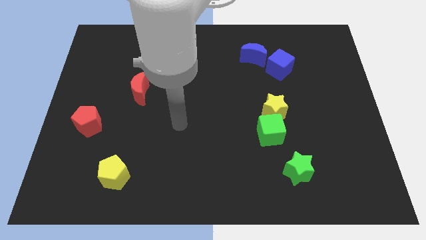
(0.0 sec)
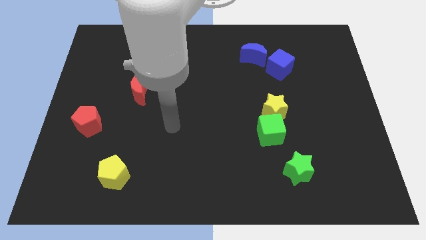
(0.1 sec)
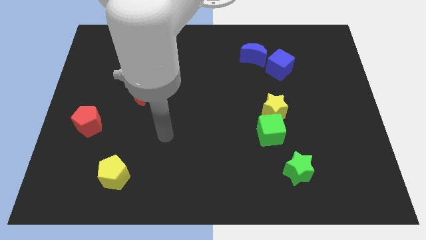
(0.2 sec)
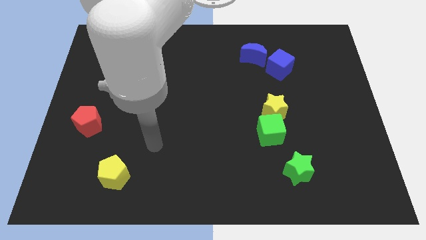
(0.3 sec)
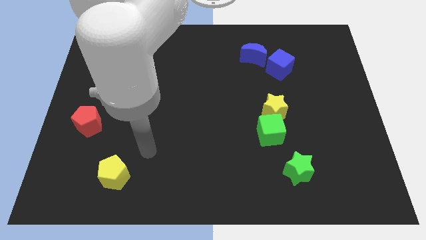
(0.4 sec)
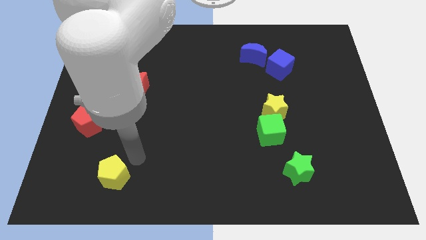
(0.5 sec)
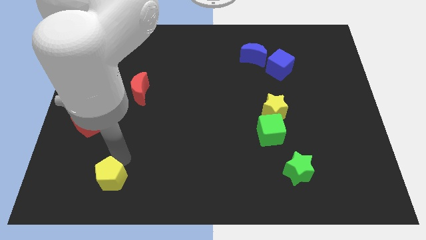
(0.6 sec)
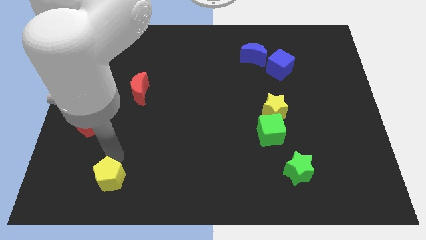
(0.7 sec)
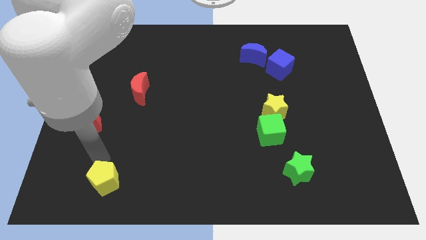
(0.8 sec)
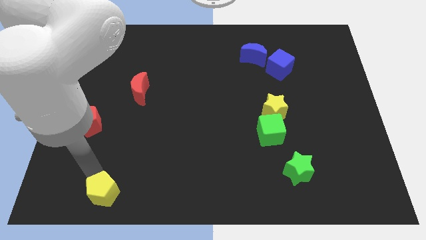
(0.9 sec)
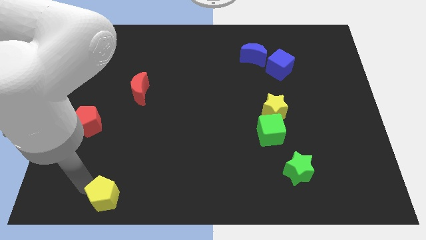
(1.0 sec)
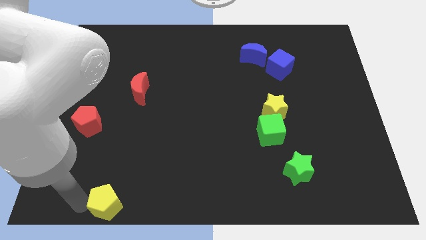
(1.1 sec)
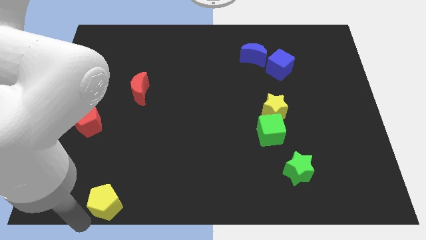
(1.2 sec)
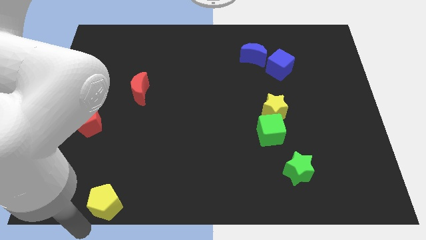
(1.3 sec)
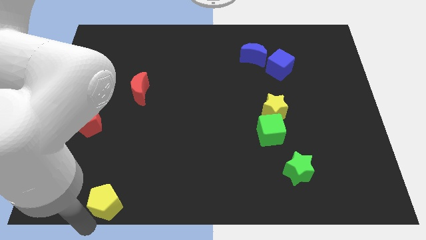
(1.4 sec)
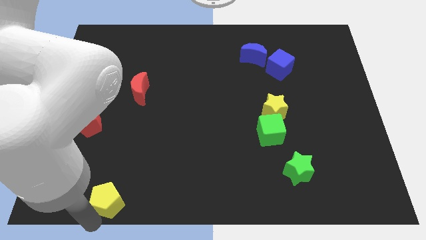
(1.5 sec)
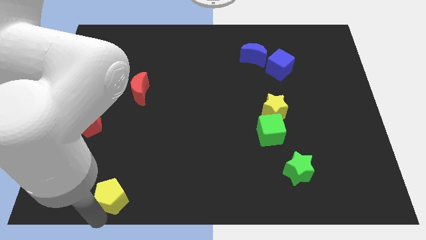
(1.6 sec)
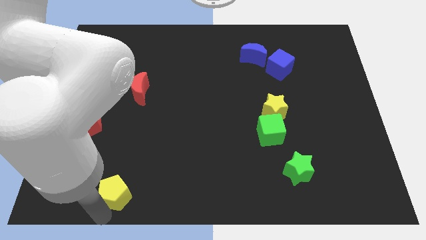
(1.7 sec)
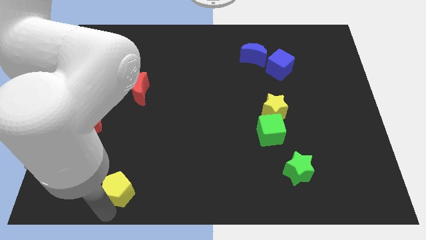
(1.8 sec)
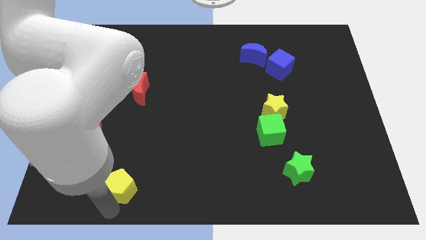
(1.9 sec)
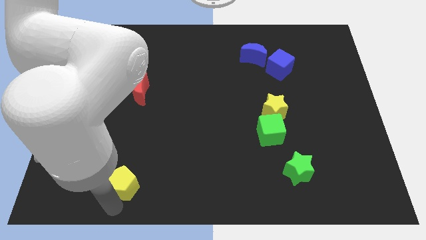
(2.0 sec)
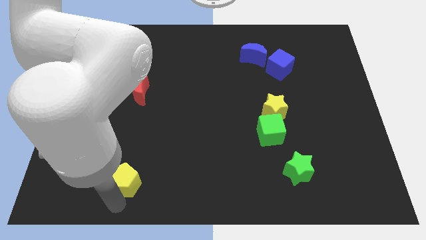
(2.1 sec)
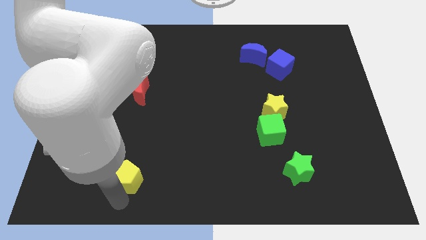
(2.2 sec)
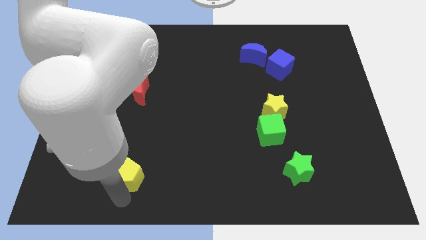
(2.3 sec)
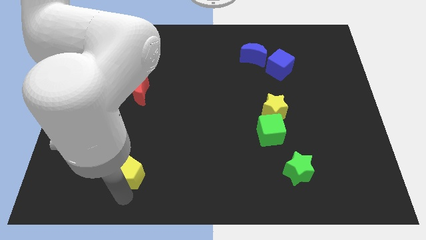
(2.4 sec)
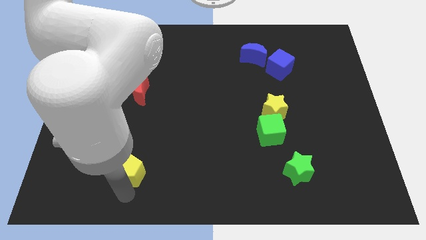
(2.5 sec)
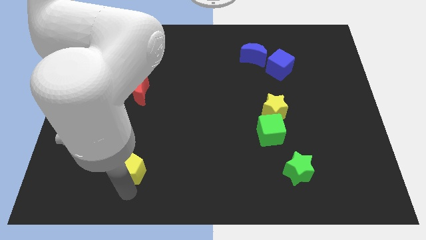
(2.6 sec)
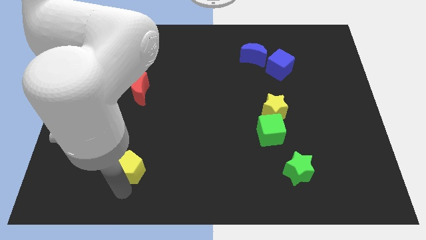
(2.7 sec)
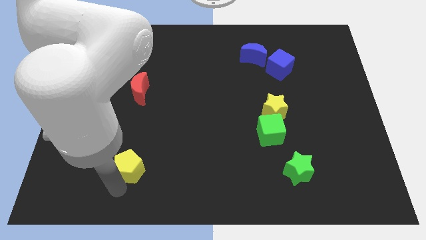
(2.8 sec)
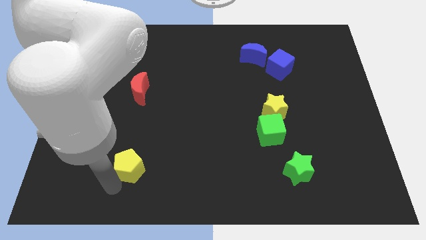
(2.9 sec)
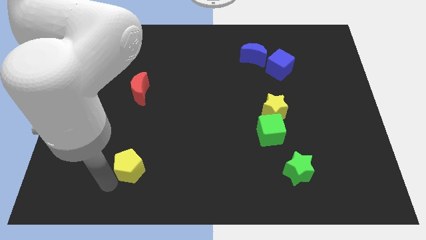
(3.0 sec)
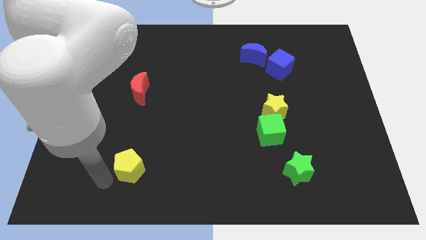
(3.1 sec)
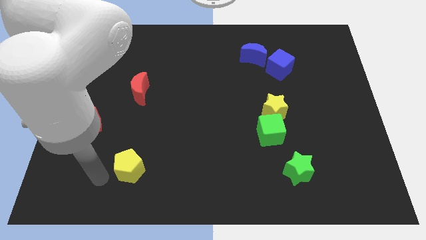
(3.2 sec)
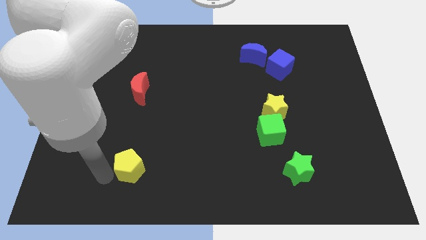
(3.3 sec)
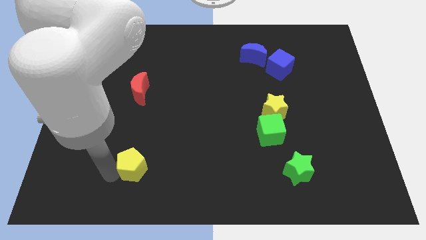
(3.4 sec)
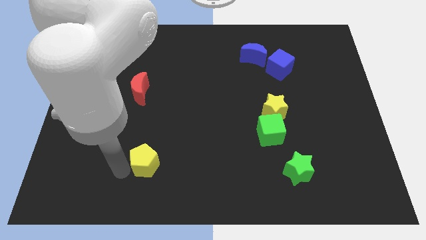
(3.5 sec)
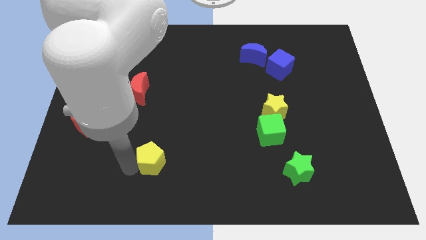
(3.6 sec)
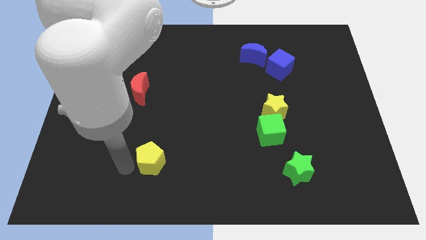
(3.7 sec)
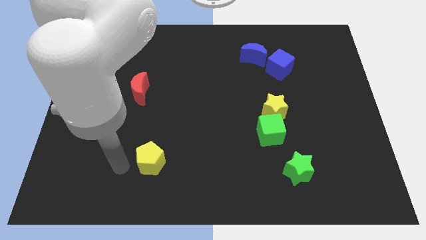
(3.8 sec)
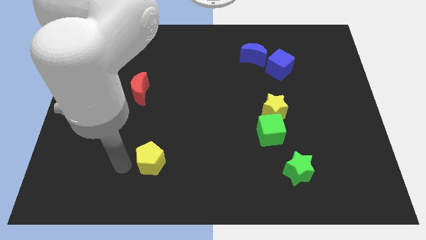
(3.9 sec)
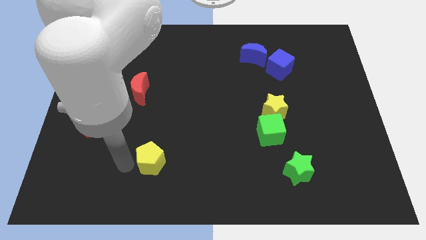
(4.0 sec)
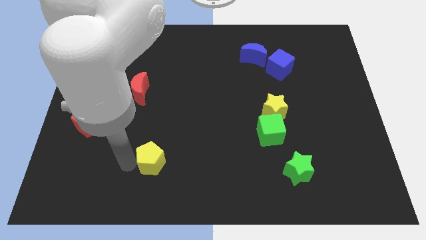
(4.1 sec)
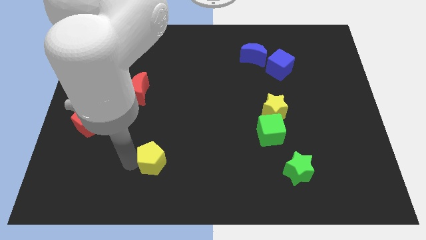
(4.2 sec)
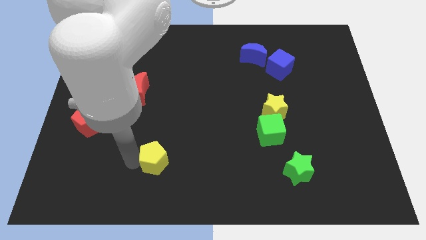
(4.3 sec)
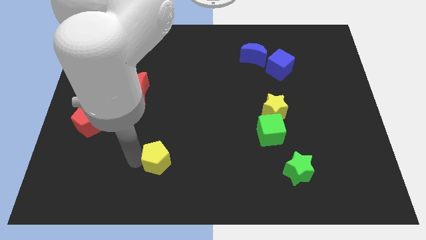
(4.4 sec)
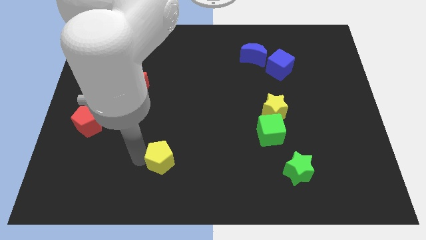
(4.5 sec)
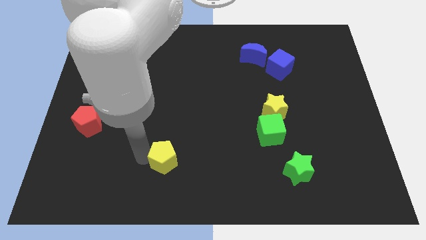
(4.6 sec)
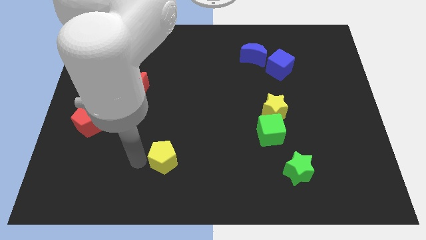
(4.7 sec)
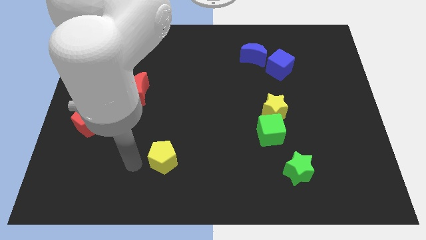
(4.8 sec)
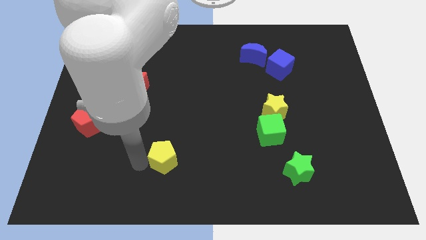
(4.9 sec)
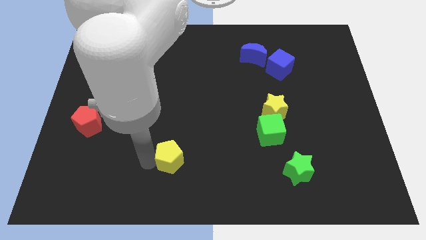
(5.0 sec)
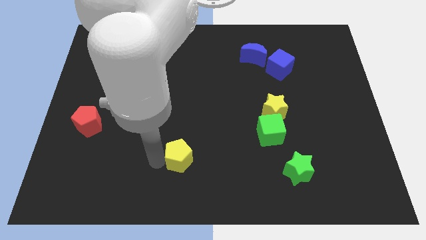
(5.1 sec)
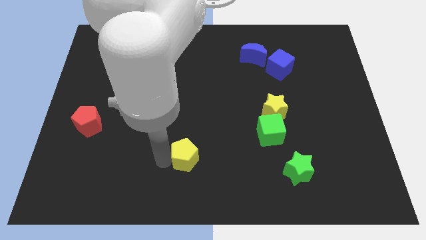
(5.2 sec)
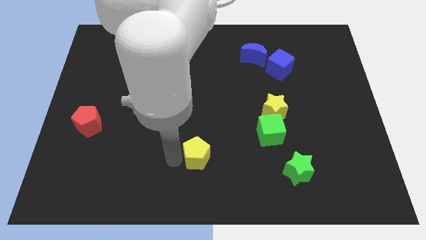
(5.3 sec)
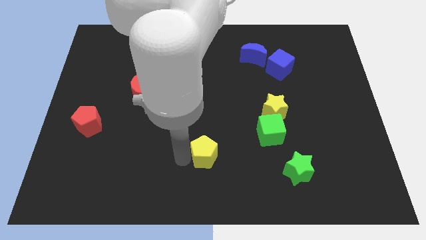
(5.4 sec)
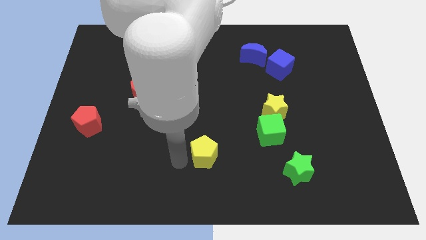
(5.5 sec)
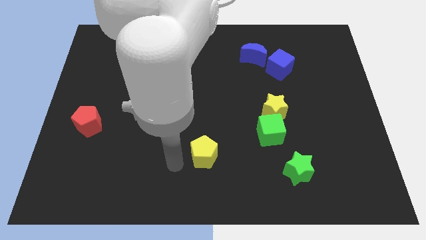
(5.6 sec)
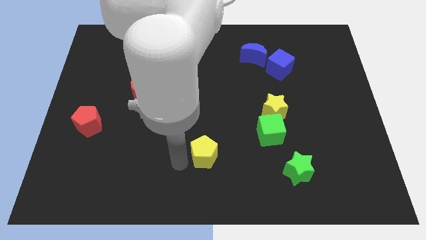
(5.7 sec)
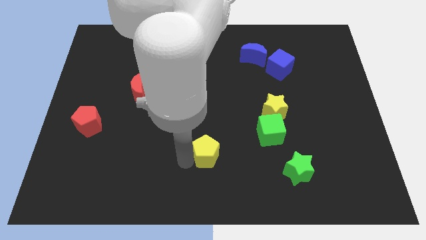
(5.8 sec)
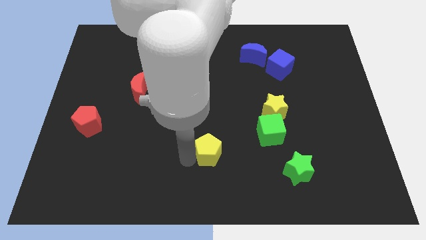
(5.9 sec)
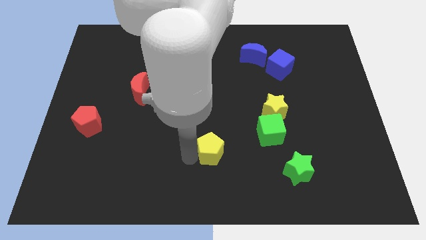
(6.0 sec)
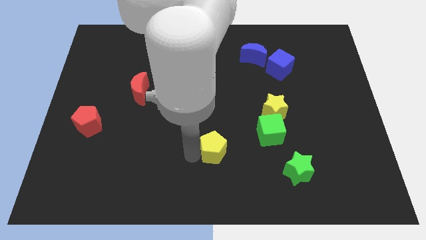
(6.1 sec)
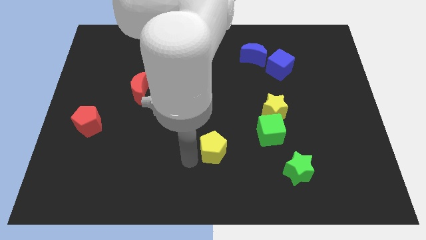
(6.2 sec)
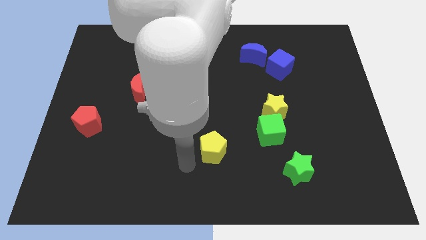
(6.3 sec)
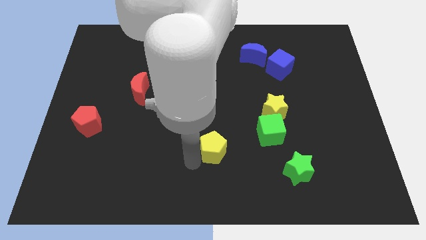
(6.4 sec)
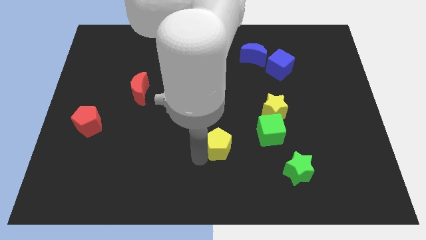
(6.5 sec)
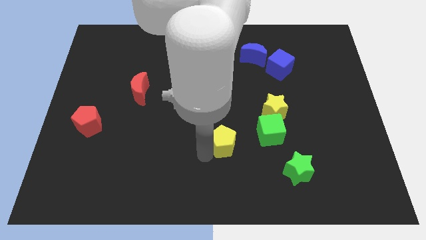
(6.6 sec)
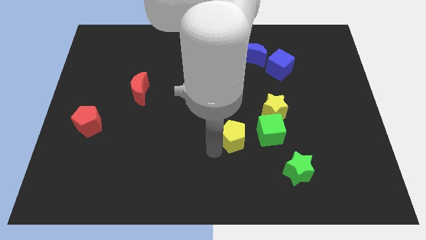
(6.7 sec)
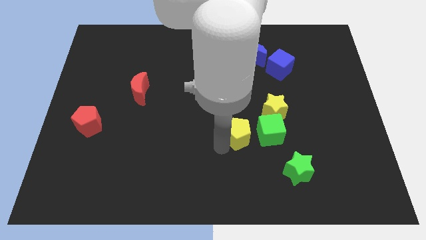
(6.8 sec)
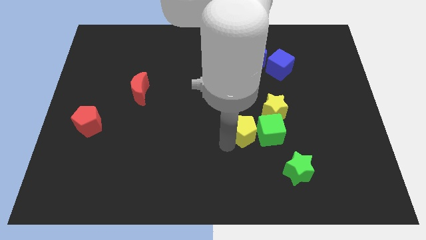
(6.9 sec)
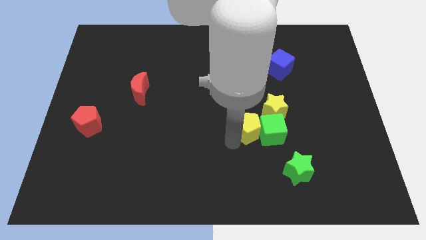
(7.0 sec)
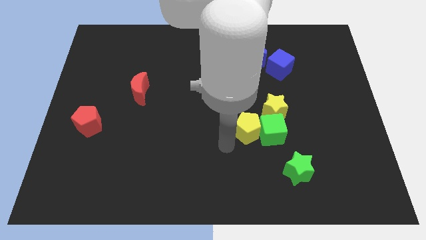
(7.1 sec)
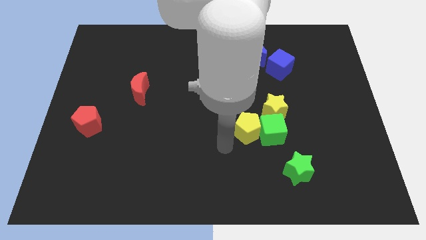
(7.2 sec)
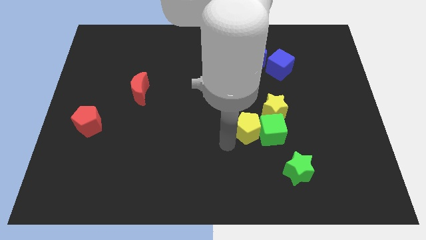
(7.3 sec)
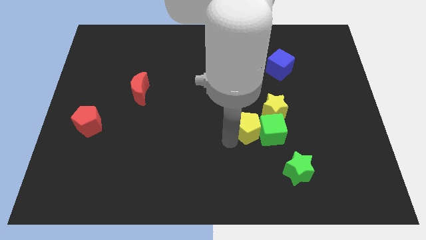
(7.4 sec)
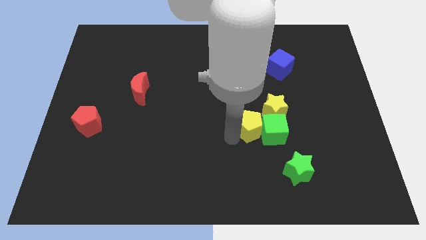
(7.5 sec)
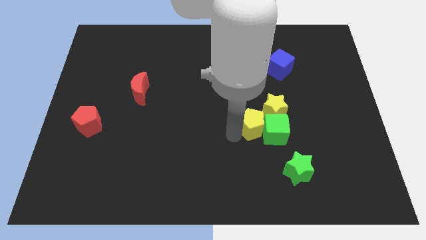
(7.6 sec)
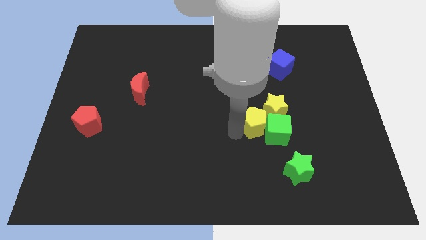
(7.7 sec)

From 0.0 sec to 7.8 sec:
slide the yellow pentagon close to the yellow star
